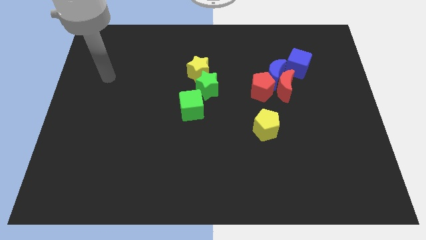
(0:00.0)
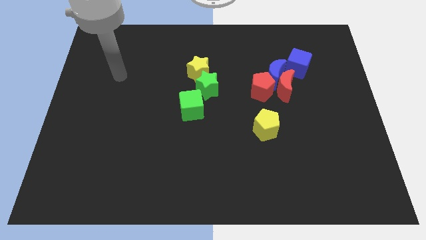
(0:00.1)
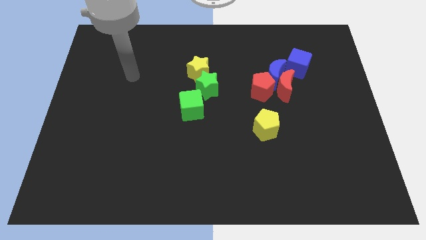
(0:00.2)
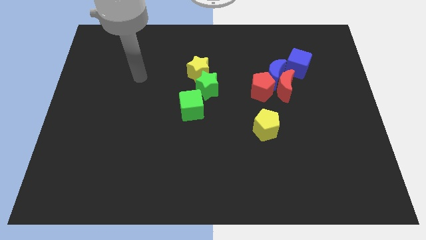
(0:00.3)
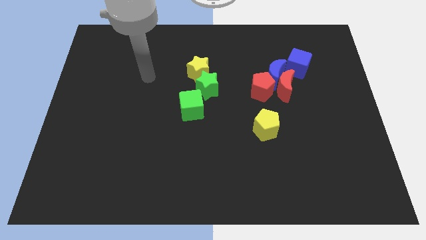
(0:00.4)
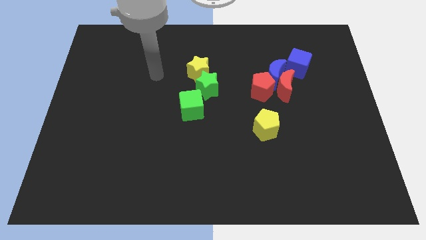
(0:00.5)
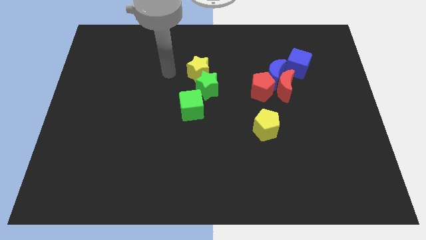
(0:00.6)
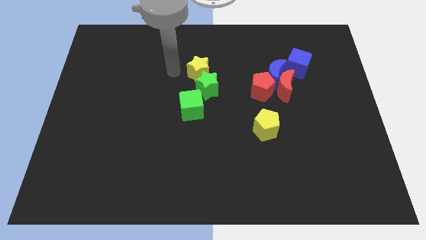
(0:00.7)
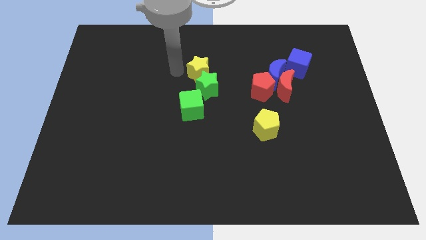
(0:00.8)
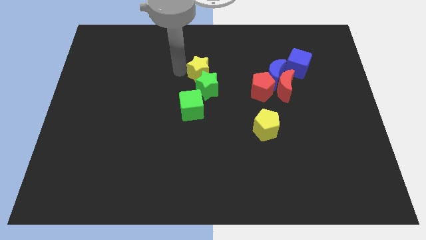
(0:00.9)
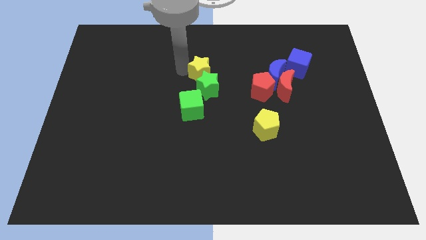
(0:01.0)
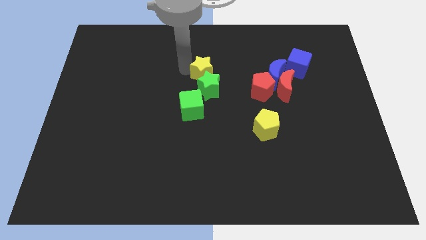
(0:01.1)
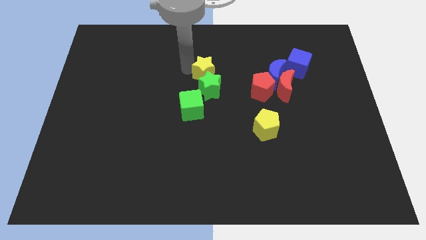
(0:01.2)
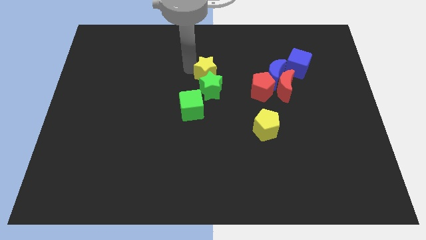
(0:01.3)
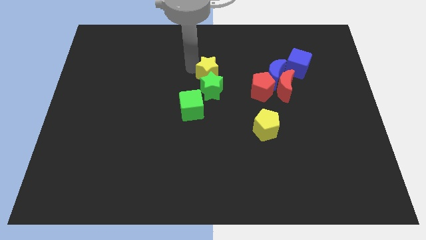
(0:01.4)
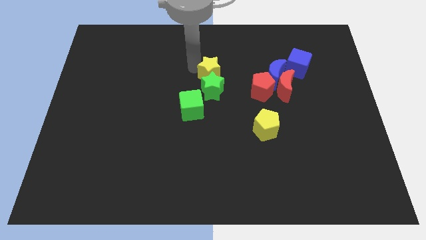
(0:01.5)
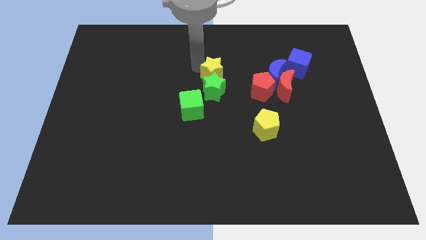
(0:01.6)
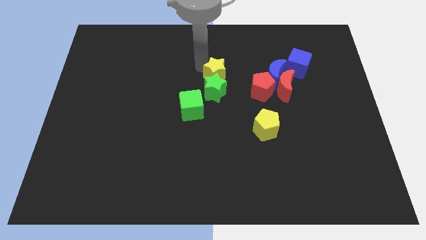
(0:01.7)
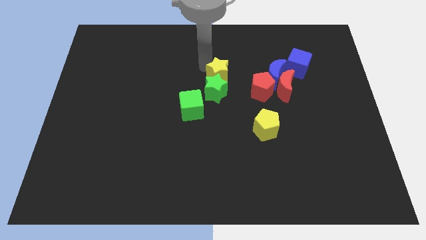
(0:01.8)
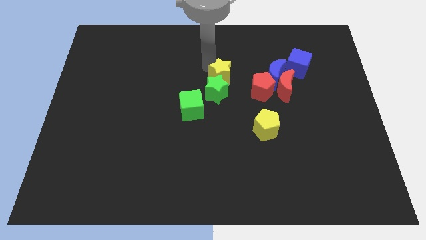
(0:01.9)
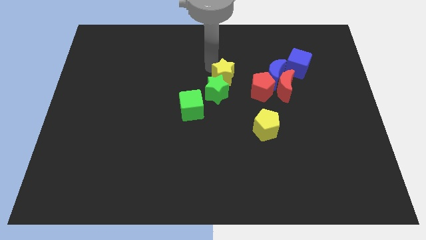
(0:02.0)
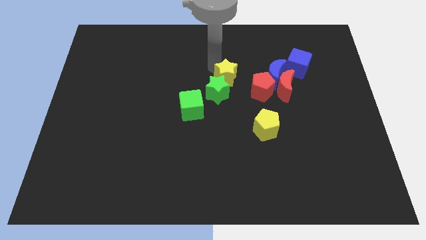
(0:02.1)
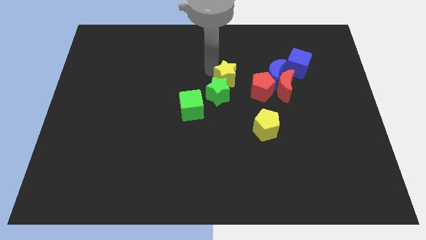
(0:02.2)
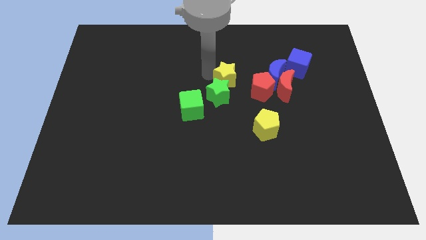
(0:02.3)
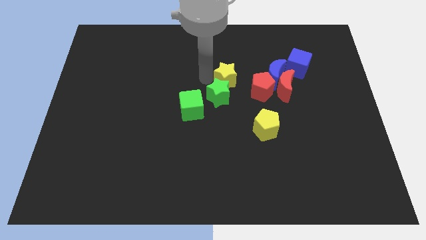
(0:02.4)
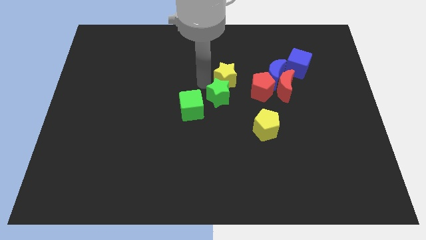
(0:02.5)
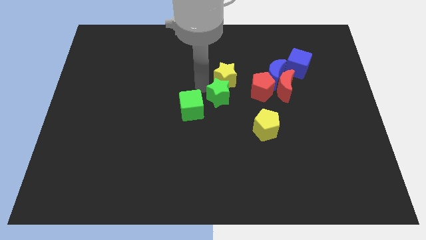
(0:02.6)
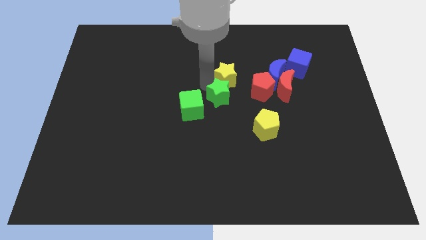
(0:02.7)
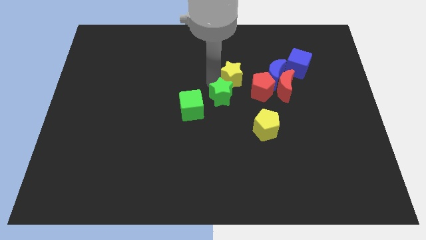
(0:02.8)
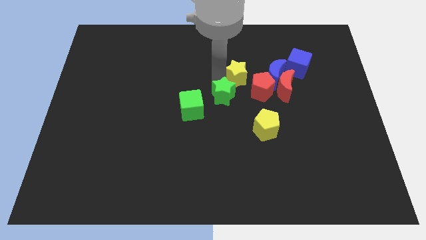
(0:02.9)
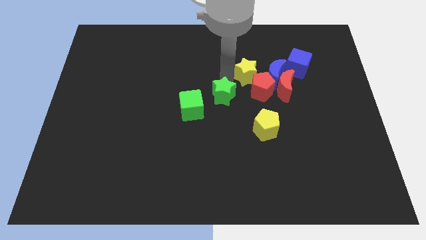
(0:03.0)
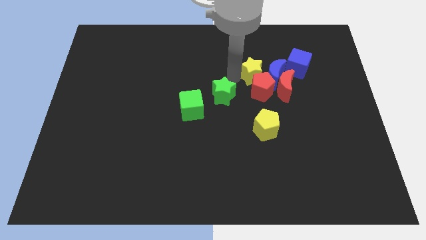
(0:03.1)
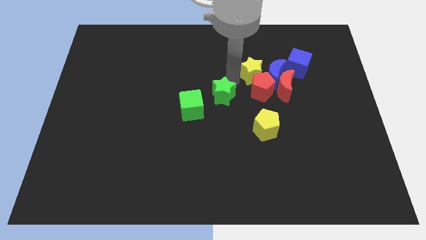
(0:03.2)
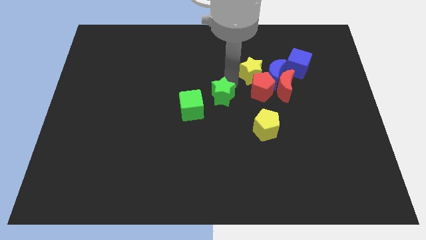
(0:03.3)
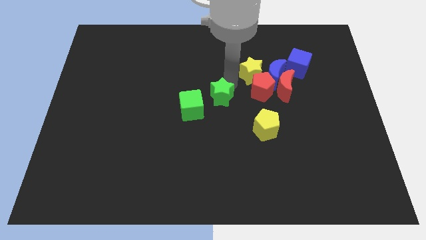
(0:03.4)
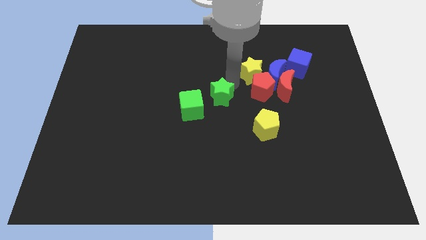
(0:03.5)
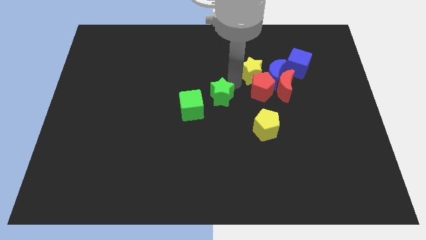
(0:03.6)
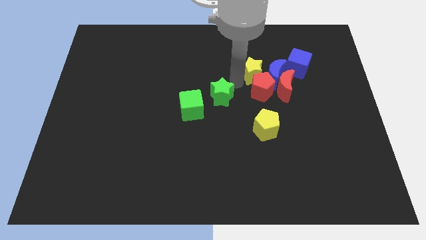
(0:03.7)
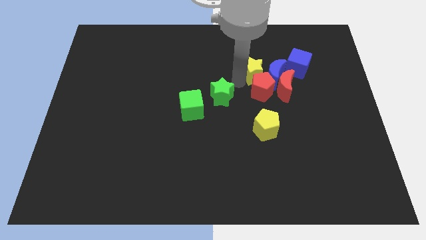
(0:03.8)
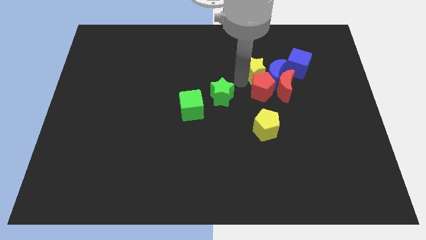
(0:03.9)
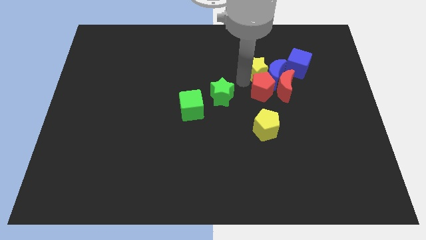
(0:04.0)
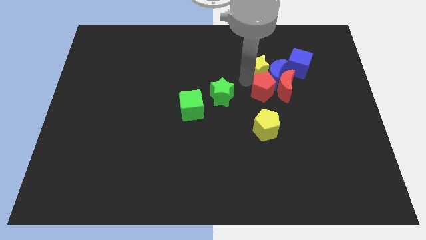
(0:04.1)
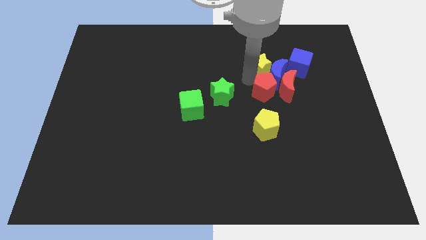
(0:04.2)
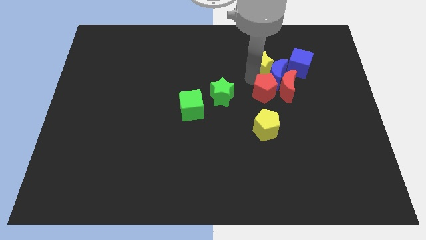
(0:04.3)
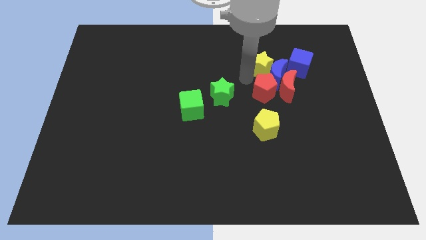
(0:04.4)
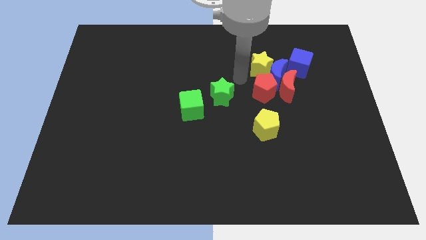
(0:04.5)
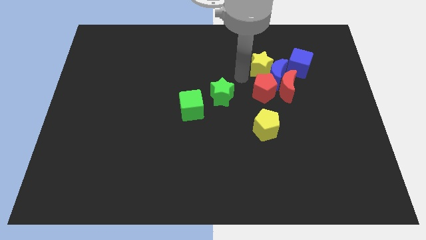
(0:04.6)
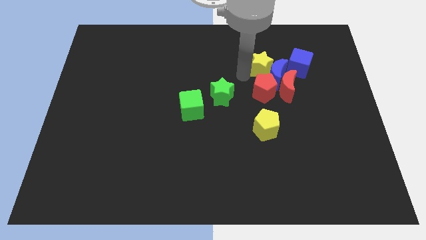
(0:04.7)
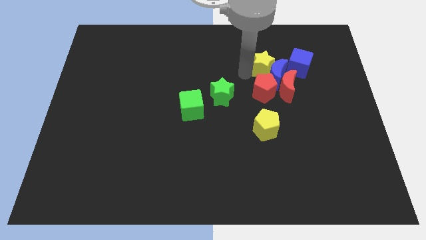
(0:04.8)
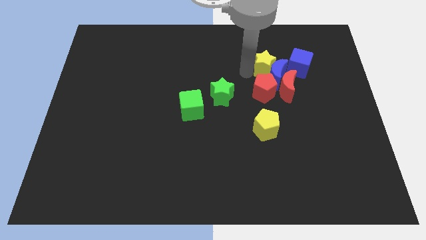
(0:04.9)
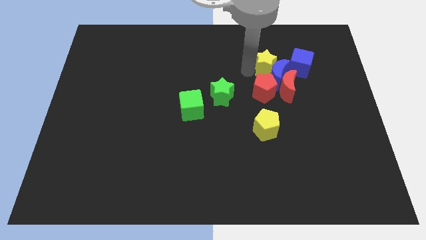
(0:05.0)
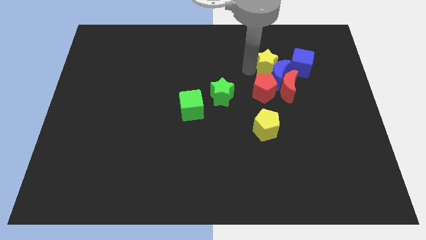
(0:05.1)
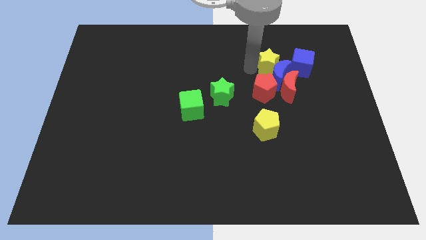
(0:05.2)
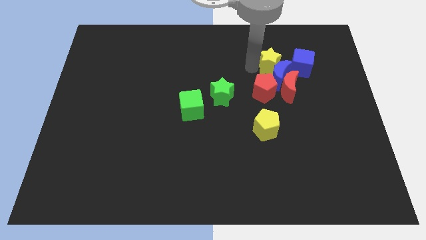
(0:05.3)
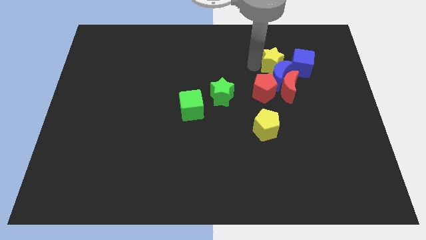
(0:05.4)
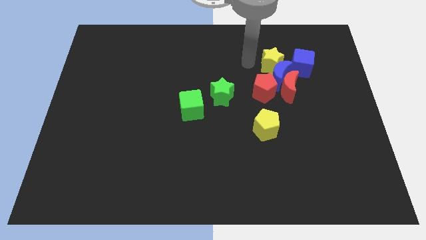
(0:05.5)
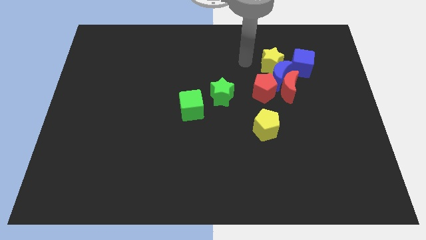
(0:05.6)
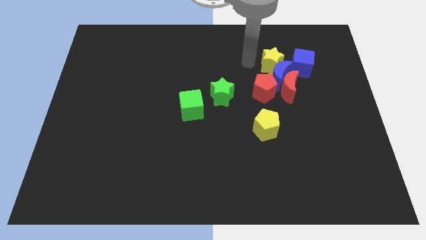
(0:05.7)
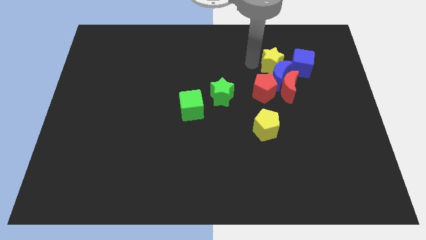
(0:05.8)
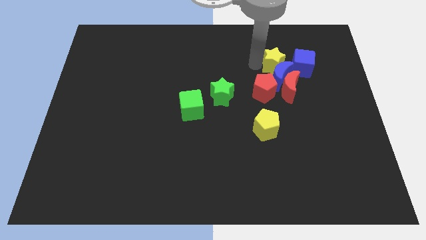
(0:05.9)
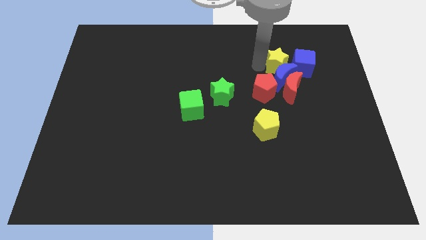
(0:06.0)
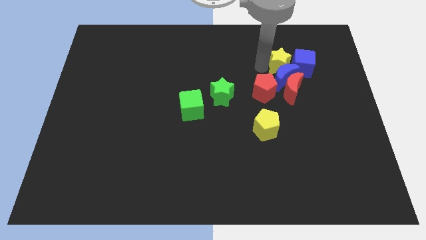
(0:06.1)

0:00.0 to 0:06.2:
slide the yellow star to the blue cube
